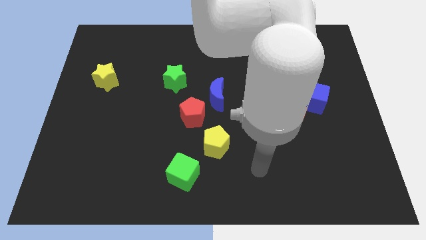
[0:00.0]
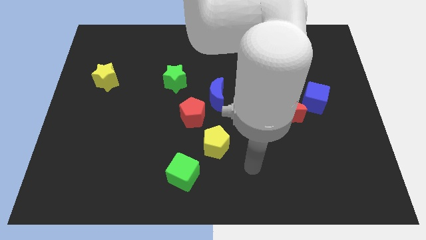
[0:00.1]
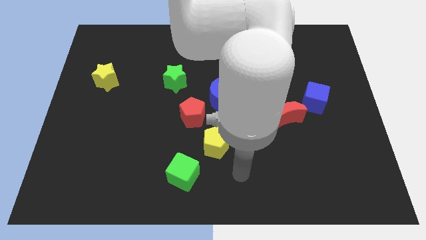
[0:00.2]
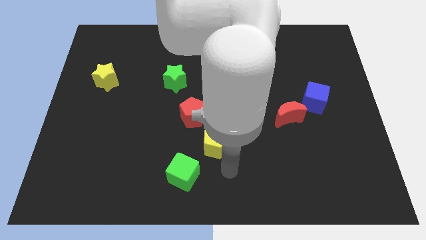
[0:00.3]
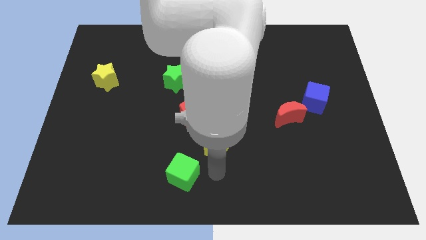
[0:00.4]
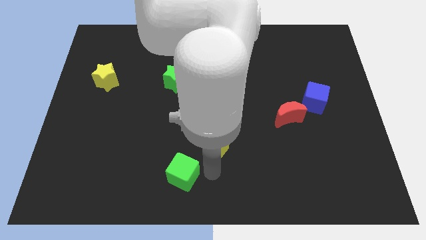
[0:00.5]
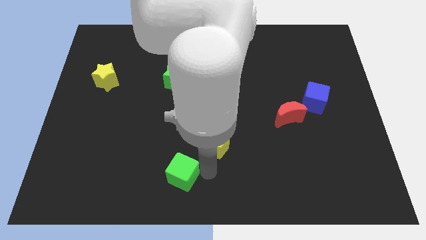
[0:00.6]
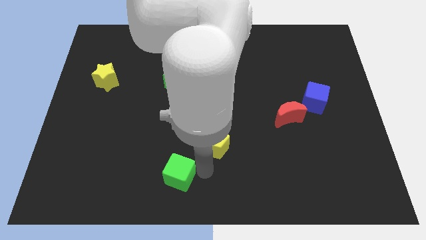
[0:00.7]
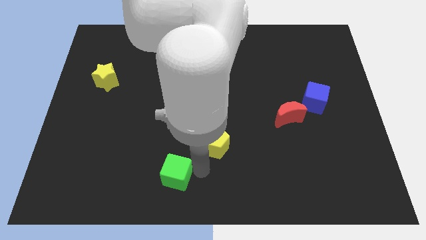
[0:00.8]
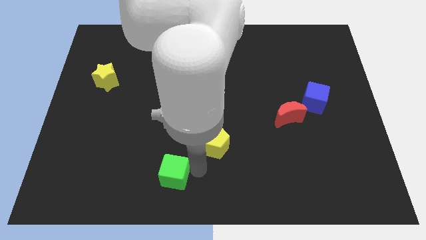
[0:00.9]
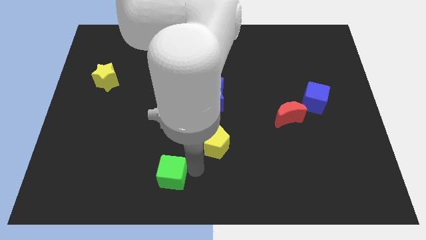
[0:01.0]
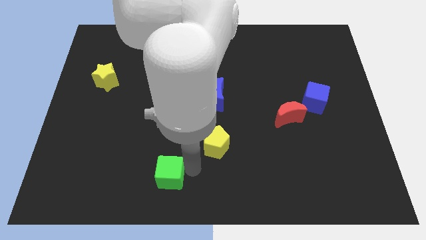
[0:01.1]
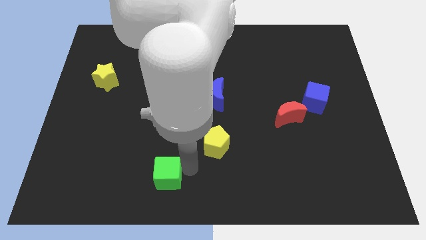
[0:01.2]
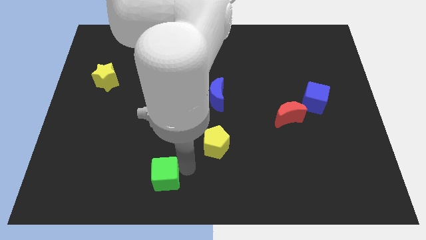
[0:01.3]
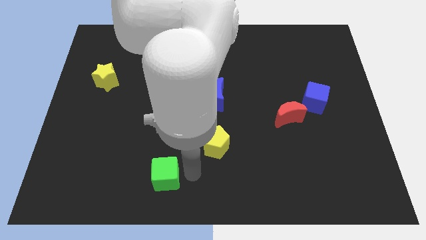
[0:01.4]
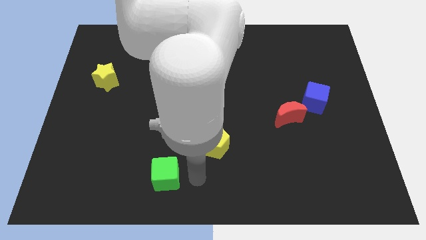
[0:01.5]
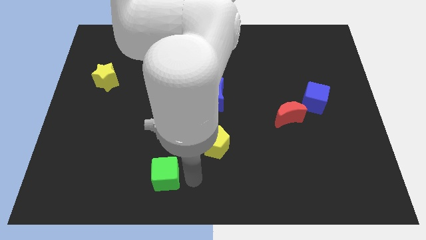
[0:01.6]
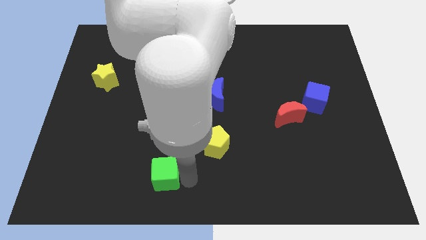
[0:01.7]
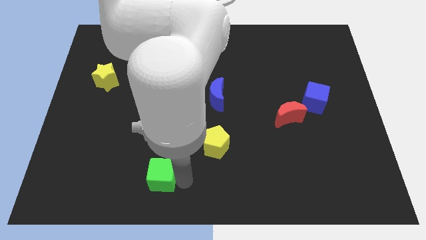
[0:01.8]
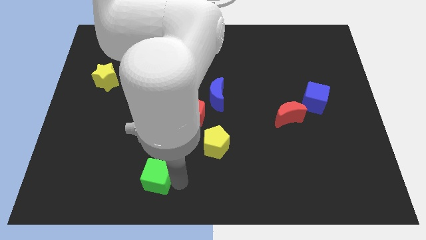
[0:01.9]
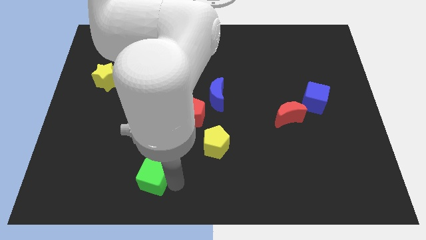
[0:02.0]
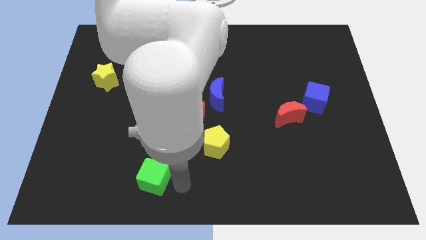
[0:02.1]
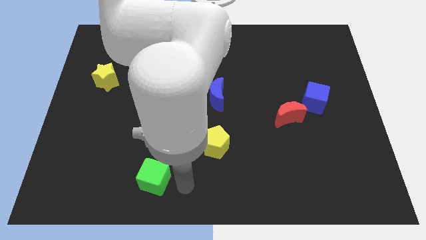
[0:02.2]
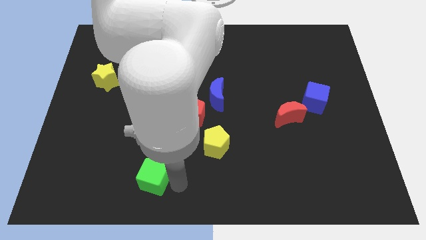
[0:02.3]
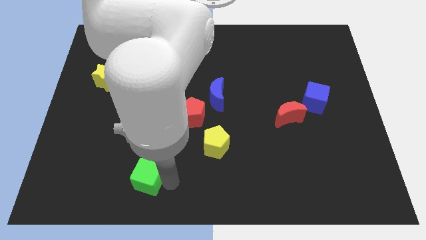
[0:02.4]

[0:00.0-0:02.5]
slide the green cube a little bit left

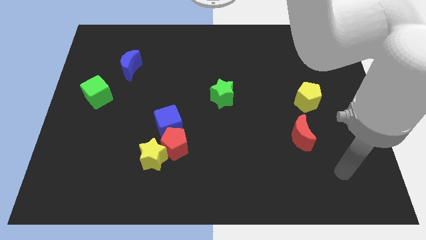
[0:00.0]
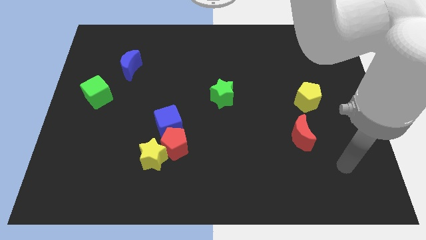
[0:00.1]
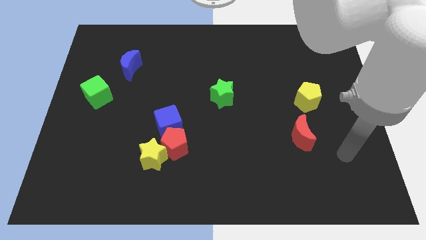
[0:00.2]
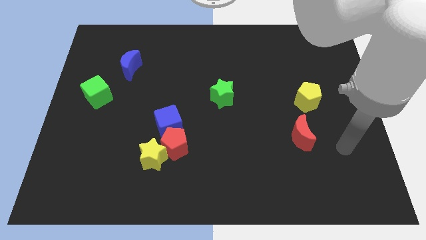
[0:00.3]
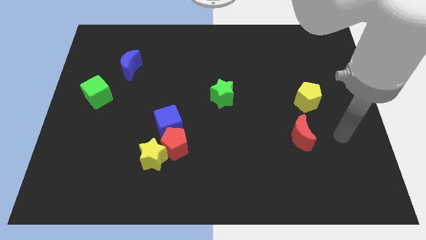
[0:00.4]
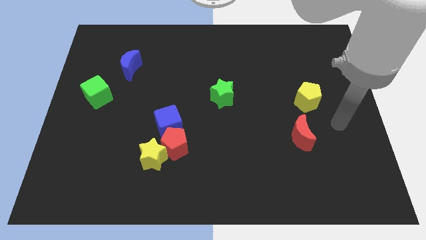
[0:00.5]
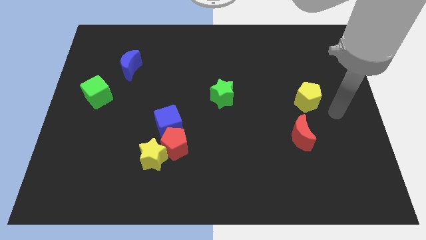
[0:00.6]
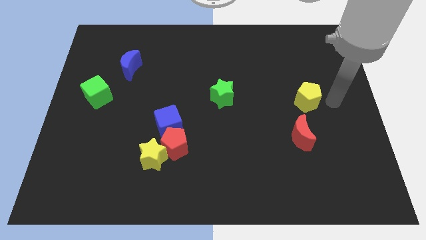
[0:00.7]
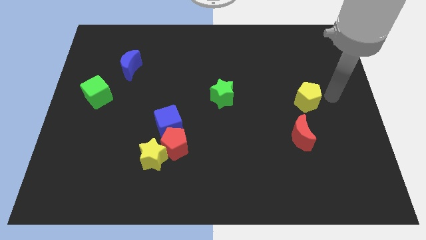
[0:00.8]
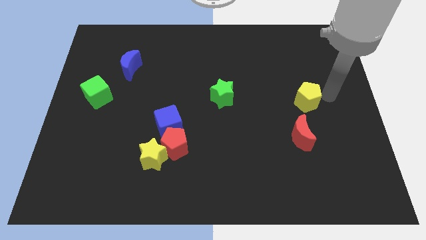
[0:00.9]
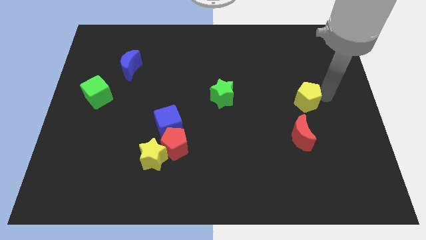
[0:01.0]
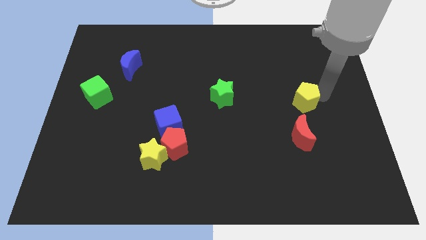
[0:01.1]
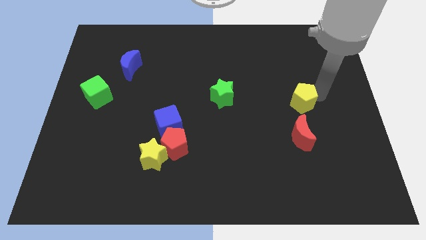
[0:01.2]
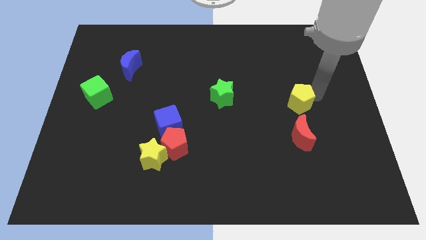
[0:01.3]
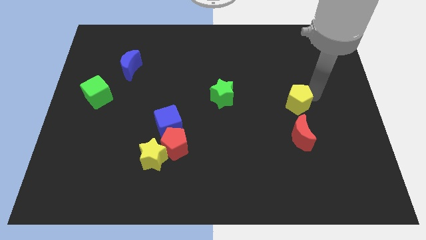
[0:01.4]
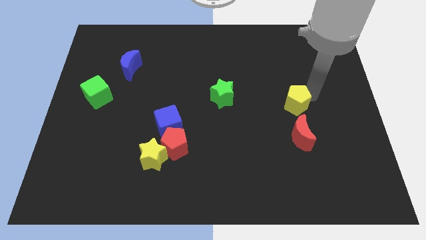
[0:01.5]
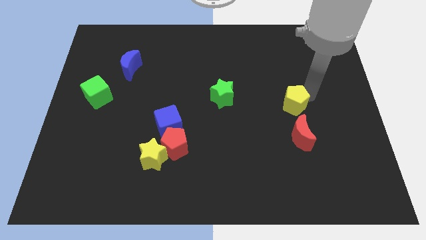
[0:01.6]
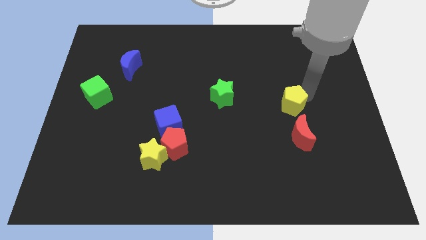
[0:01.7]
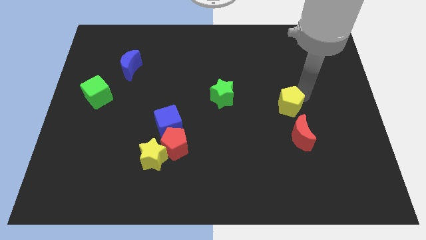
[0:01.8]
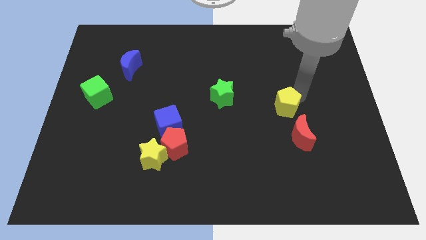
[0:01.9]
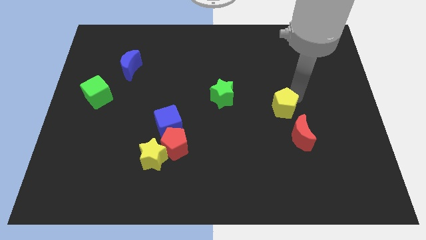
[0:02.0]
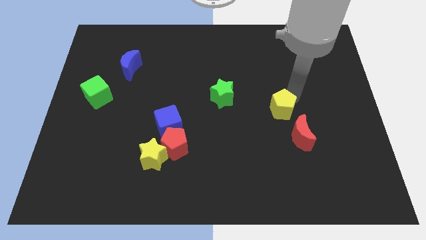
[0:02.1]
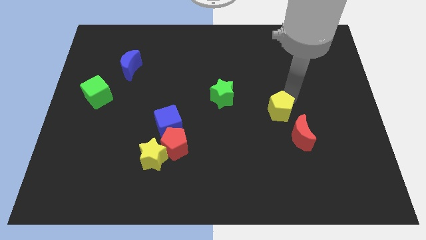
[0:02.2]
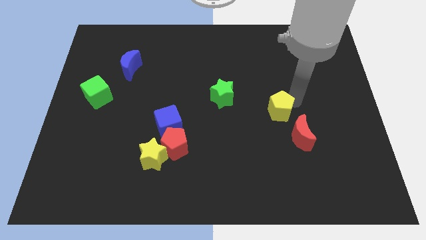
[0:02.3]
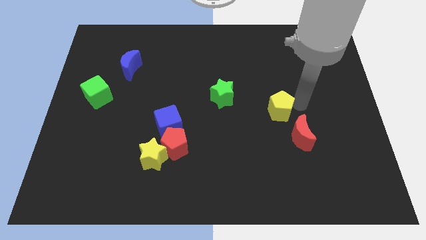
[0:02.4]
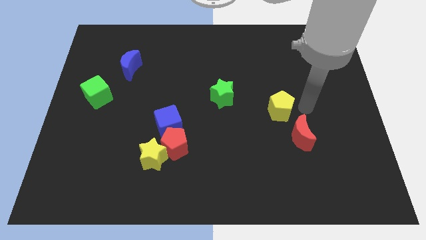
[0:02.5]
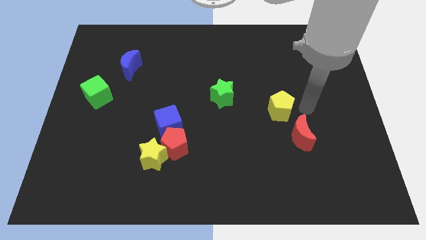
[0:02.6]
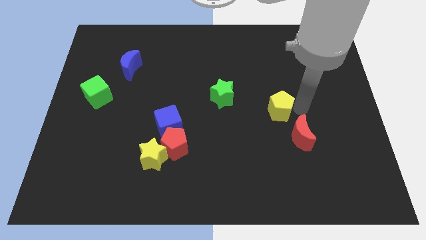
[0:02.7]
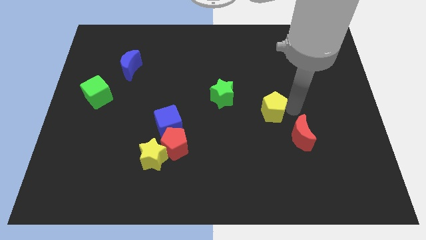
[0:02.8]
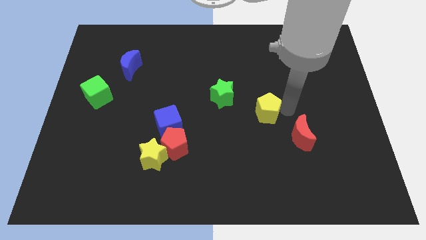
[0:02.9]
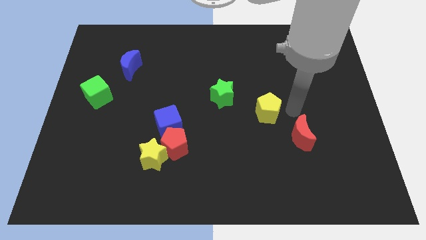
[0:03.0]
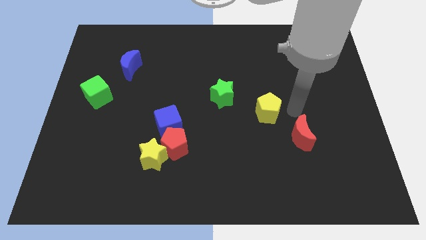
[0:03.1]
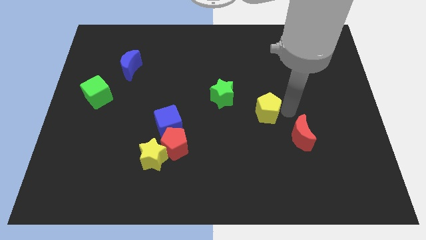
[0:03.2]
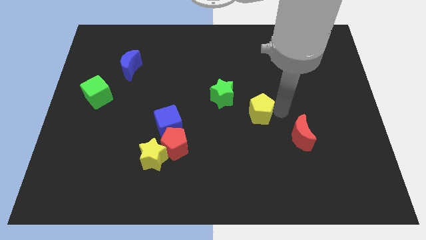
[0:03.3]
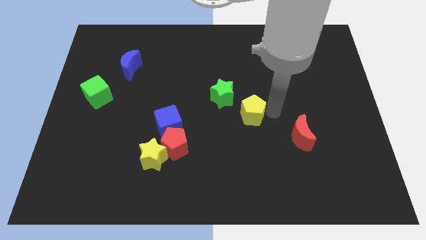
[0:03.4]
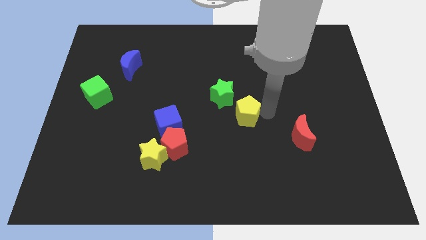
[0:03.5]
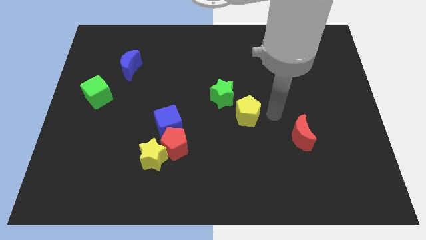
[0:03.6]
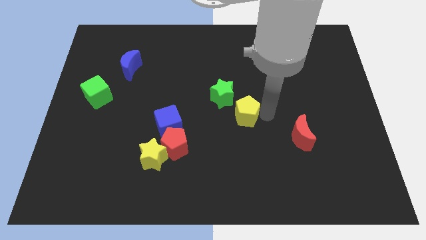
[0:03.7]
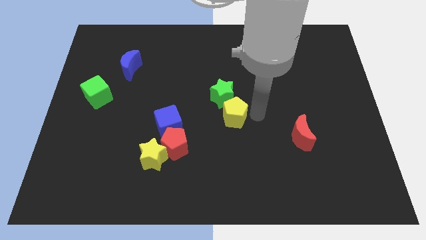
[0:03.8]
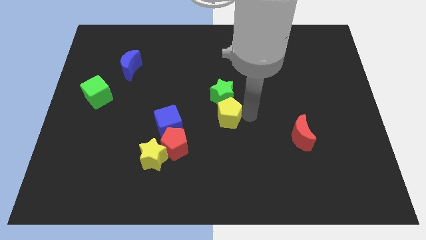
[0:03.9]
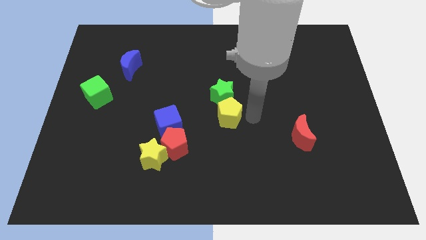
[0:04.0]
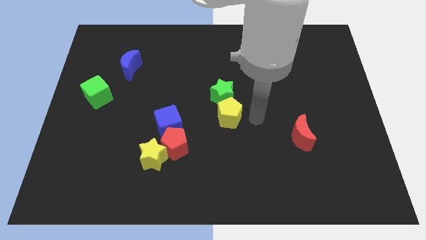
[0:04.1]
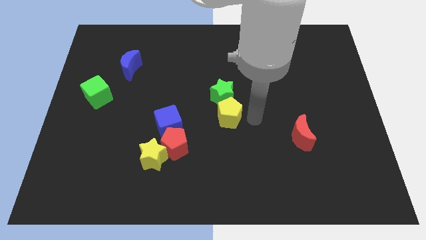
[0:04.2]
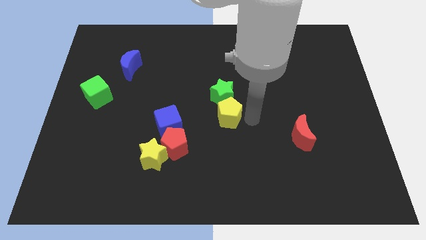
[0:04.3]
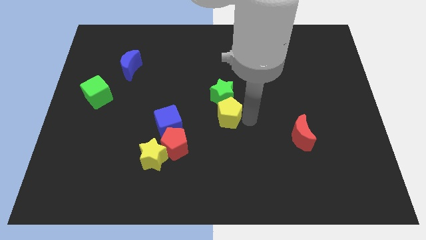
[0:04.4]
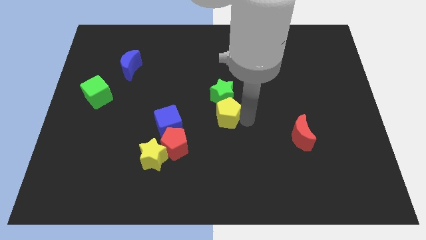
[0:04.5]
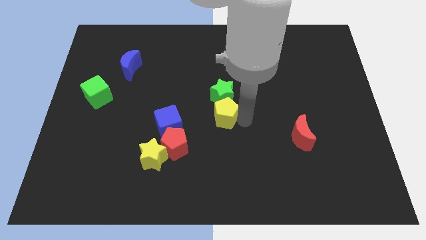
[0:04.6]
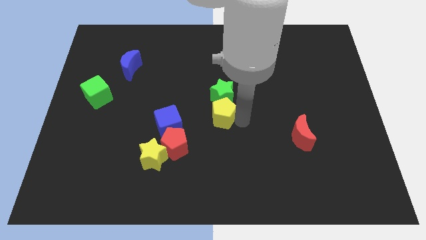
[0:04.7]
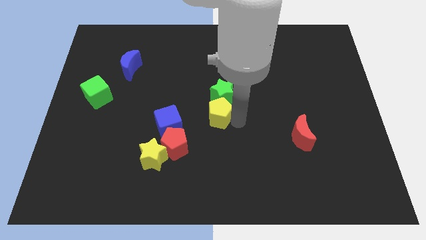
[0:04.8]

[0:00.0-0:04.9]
slide the yellow pentagon to the left

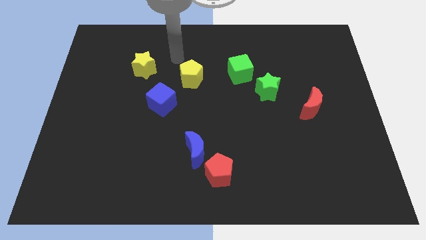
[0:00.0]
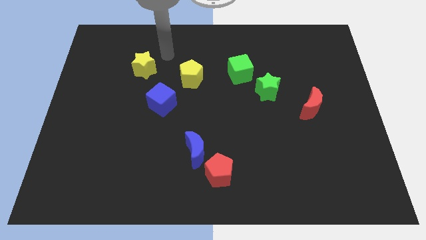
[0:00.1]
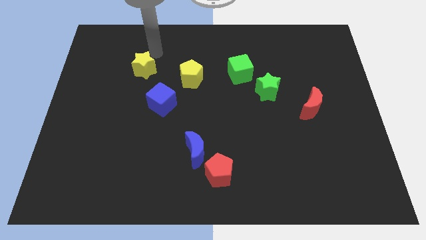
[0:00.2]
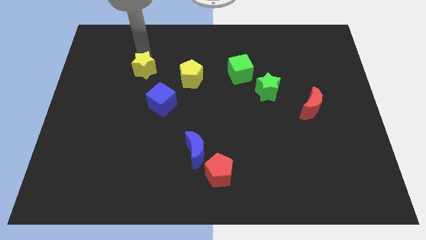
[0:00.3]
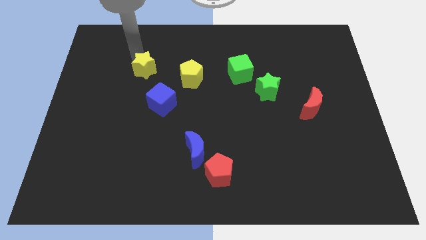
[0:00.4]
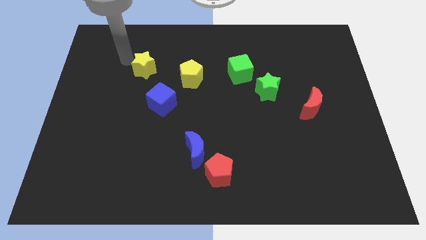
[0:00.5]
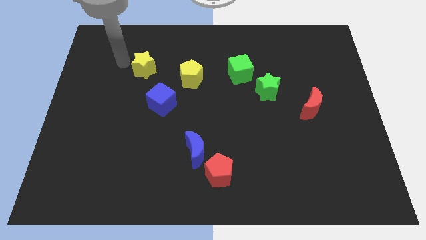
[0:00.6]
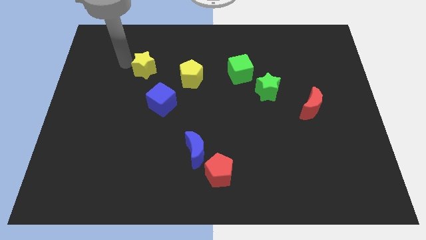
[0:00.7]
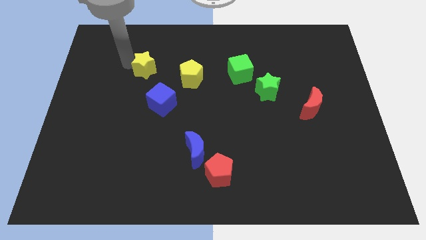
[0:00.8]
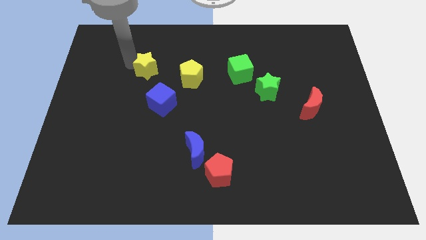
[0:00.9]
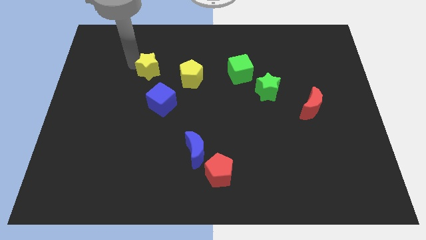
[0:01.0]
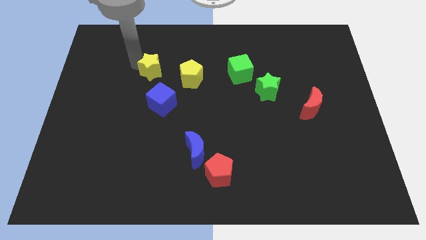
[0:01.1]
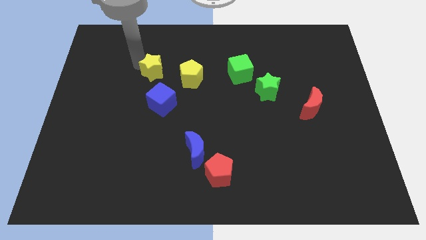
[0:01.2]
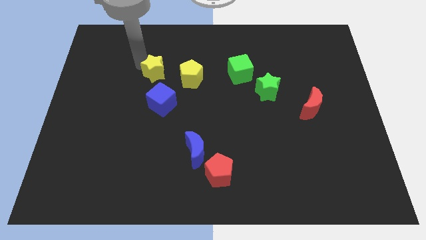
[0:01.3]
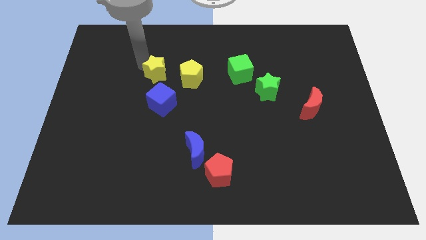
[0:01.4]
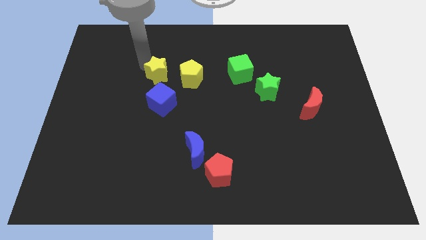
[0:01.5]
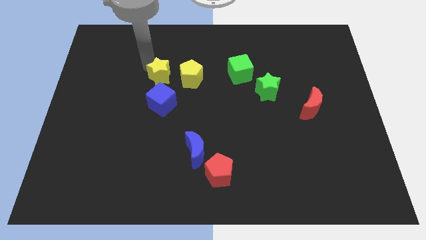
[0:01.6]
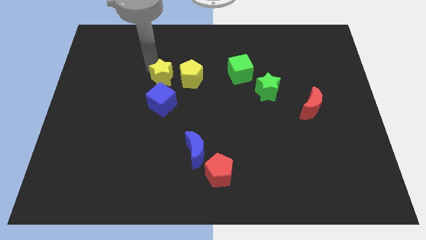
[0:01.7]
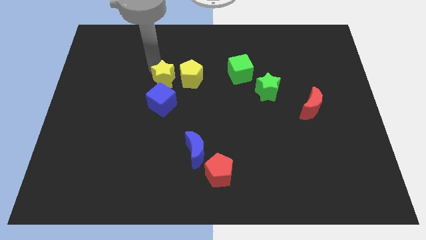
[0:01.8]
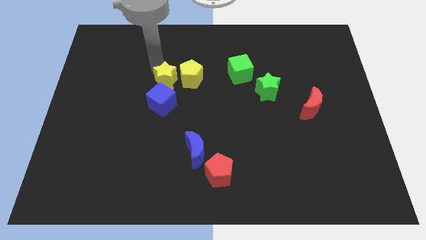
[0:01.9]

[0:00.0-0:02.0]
move the yellow star a little diagonally down and right
